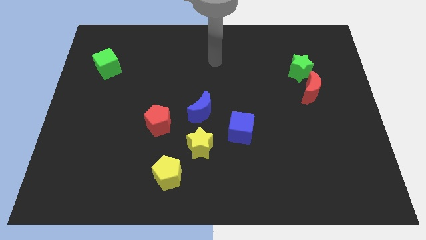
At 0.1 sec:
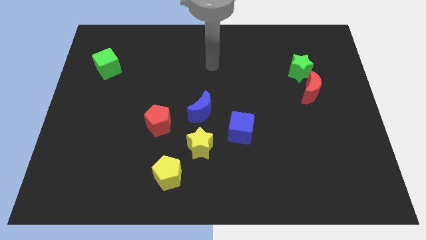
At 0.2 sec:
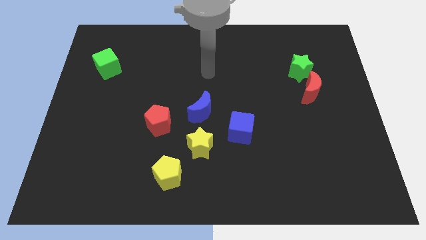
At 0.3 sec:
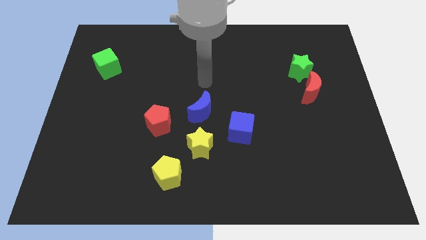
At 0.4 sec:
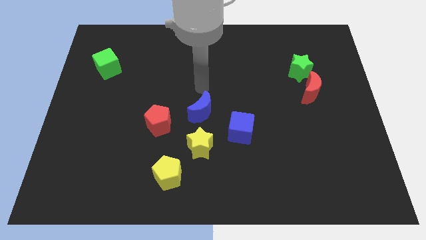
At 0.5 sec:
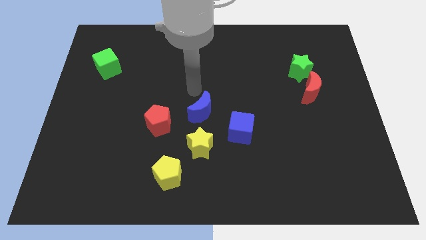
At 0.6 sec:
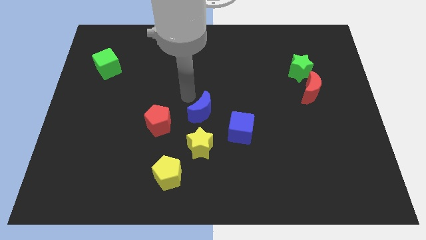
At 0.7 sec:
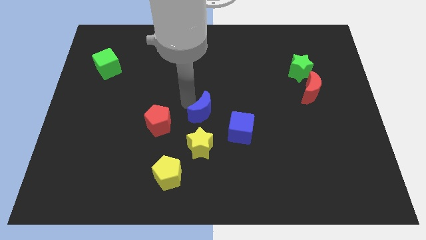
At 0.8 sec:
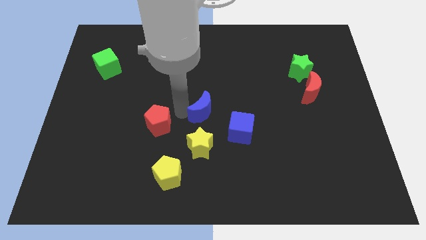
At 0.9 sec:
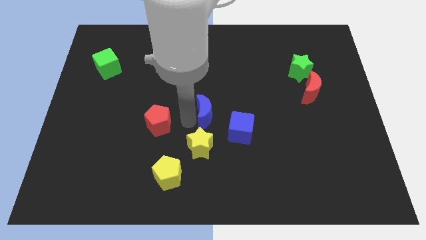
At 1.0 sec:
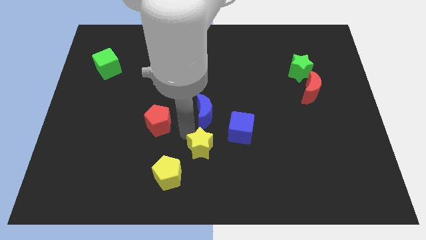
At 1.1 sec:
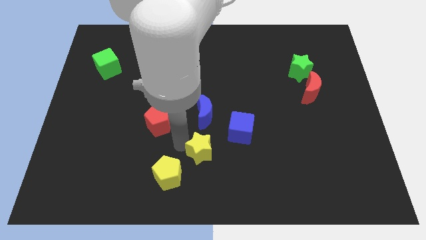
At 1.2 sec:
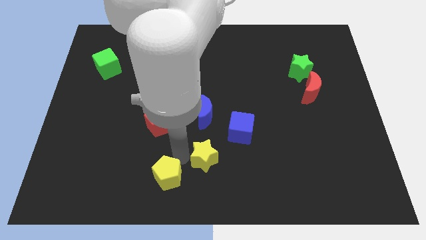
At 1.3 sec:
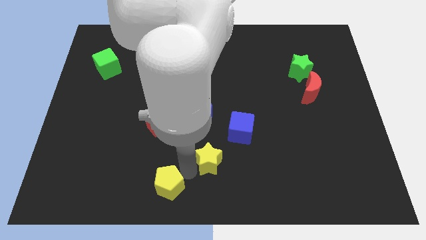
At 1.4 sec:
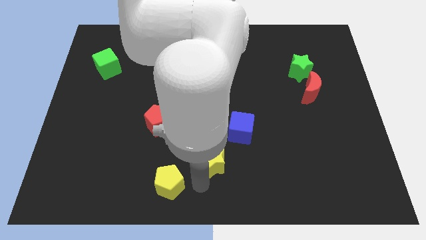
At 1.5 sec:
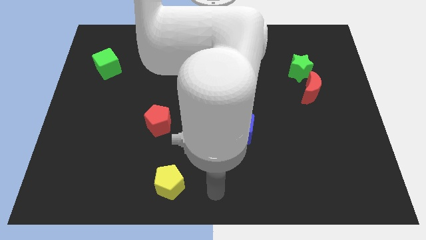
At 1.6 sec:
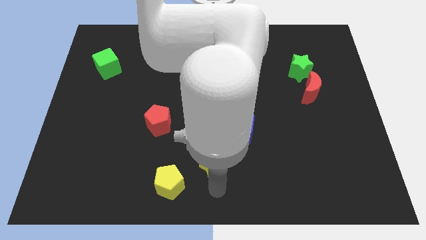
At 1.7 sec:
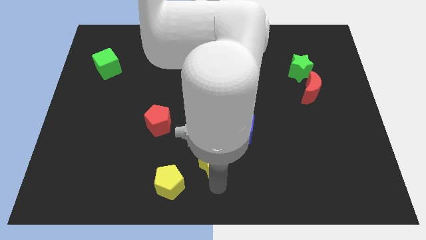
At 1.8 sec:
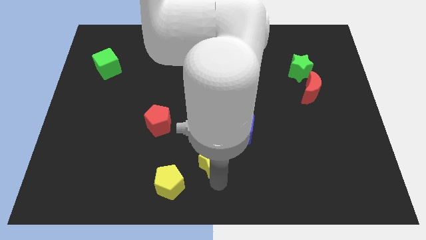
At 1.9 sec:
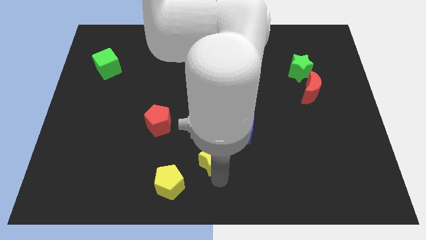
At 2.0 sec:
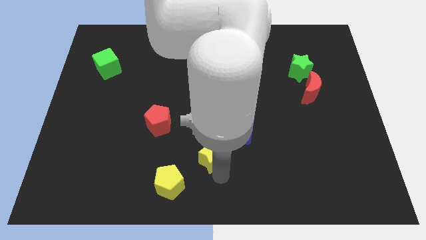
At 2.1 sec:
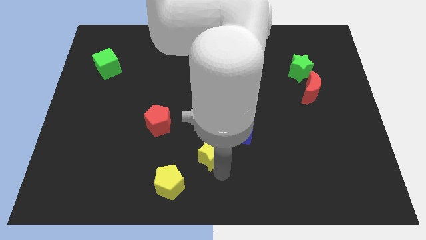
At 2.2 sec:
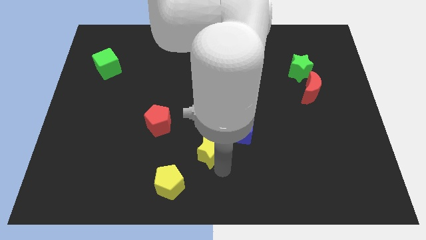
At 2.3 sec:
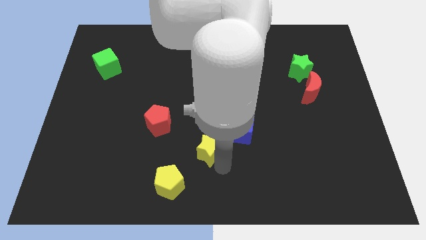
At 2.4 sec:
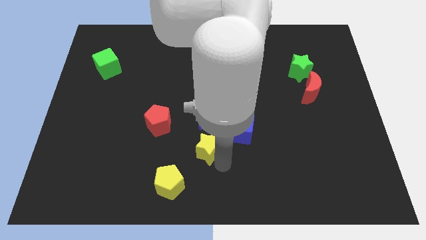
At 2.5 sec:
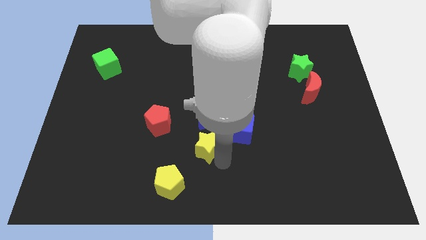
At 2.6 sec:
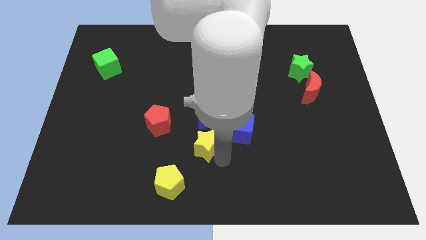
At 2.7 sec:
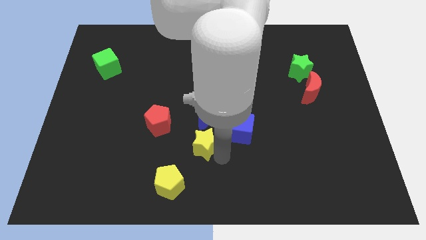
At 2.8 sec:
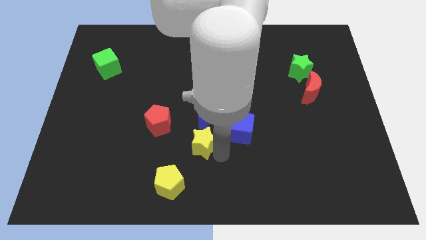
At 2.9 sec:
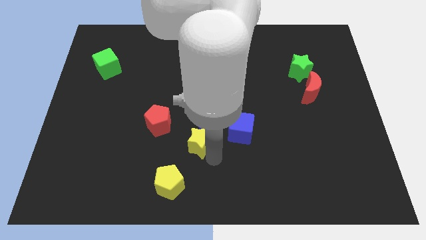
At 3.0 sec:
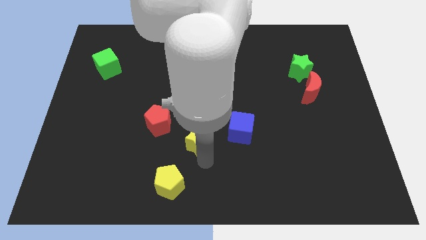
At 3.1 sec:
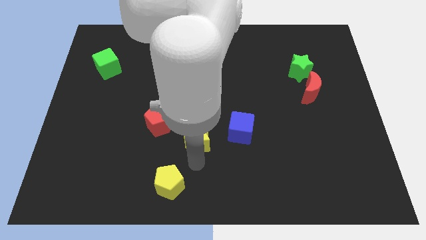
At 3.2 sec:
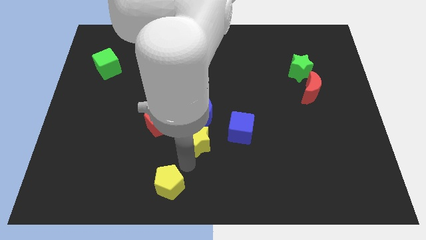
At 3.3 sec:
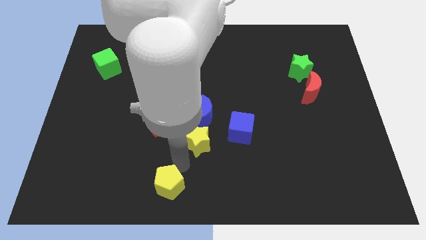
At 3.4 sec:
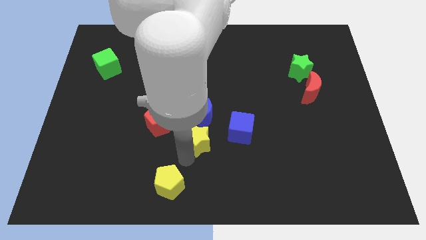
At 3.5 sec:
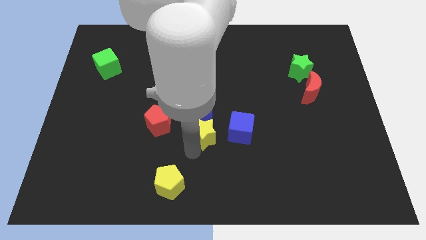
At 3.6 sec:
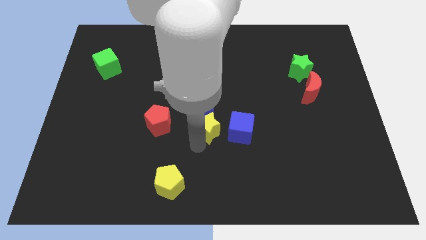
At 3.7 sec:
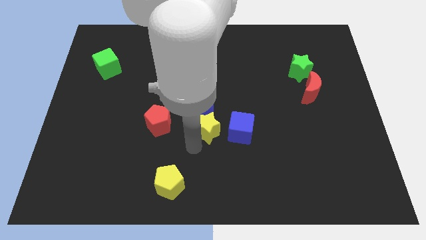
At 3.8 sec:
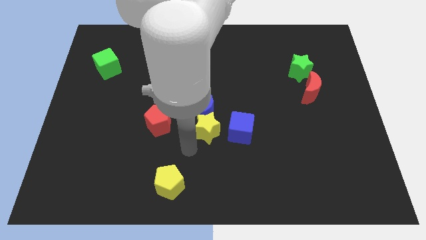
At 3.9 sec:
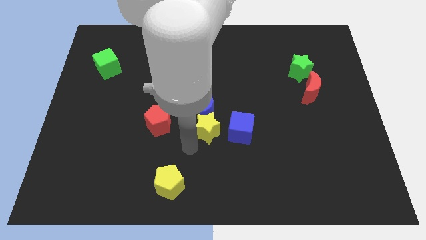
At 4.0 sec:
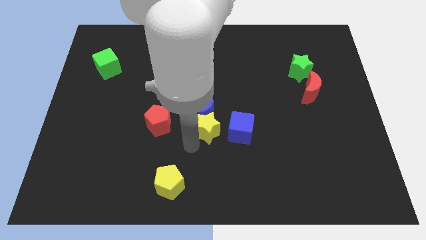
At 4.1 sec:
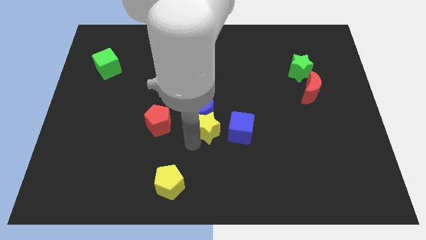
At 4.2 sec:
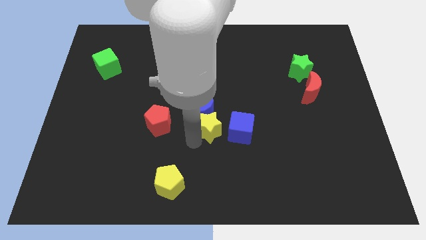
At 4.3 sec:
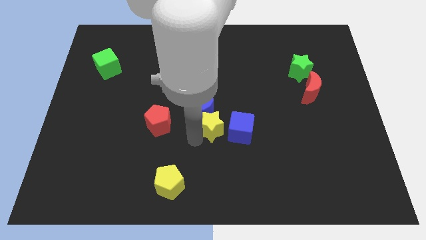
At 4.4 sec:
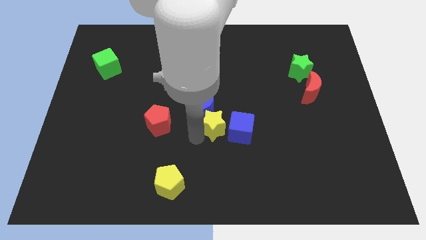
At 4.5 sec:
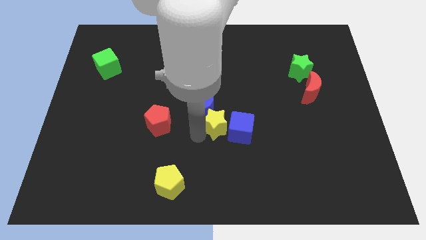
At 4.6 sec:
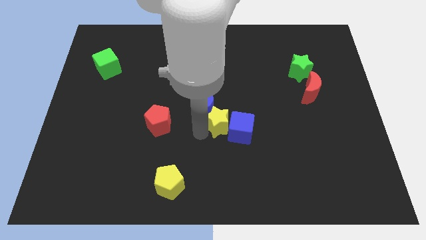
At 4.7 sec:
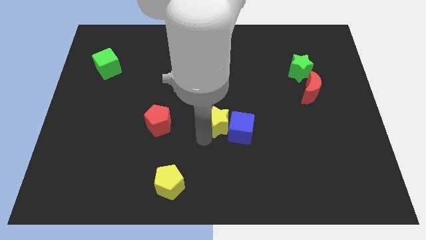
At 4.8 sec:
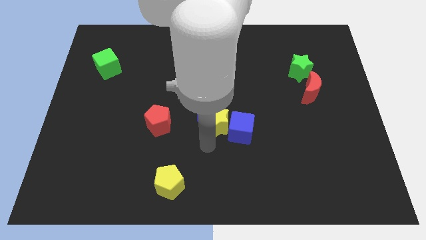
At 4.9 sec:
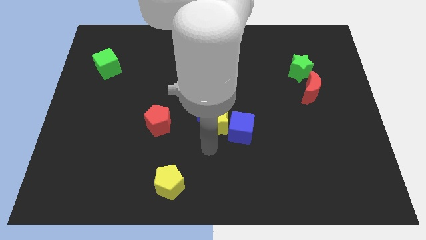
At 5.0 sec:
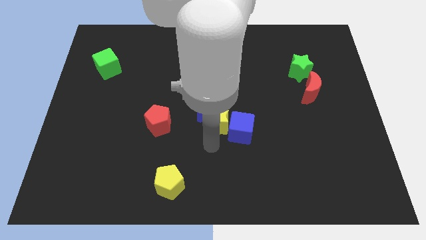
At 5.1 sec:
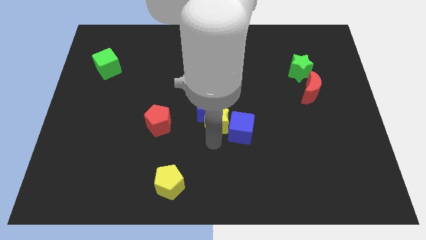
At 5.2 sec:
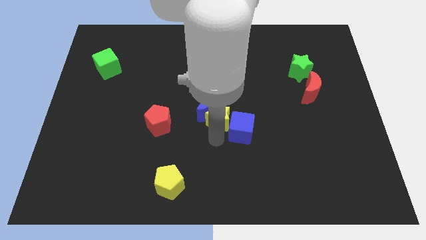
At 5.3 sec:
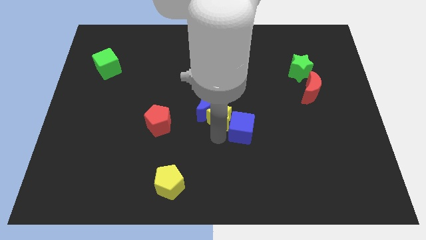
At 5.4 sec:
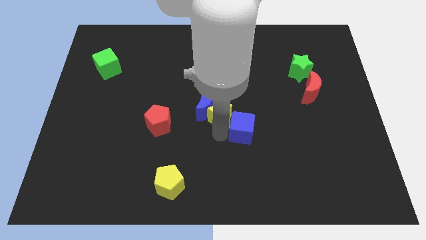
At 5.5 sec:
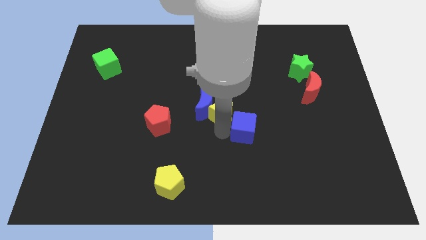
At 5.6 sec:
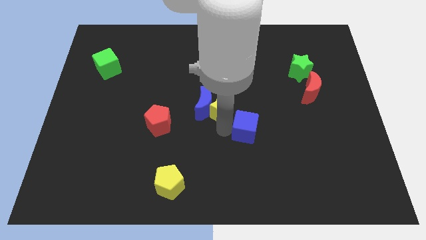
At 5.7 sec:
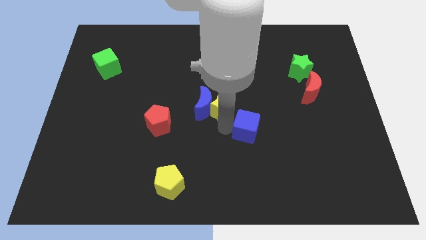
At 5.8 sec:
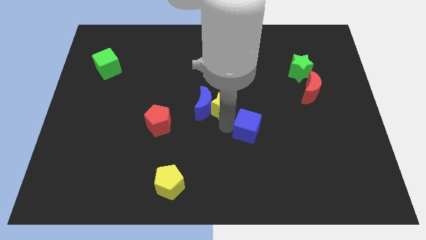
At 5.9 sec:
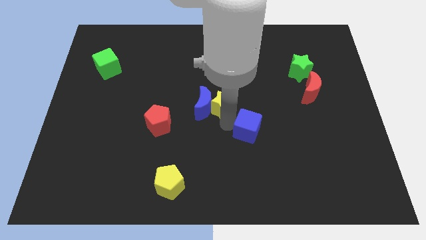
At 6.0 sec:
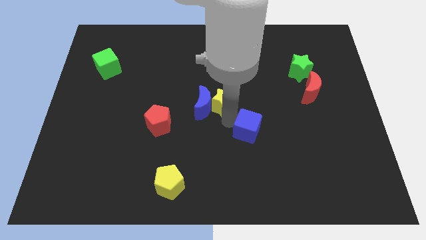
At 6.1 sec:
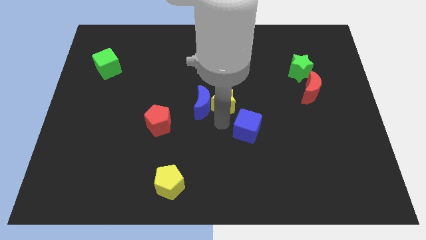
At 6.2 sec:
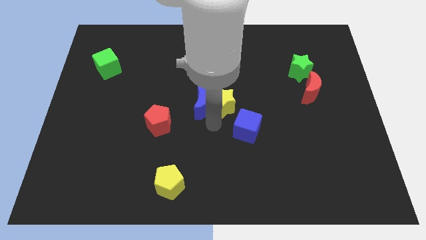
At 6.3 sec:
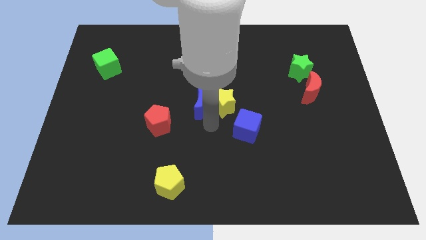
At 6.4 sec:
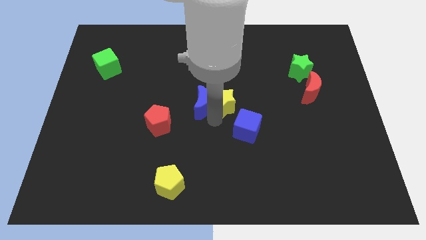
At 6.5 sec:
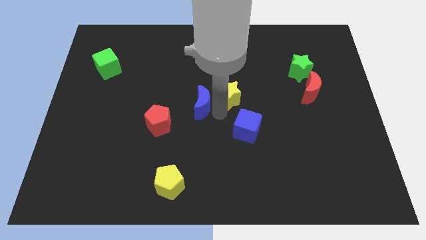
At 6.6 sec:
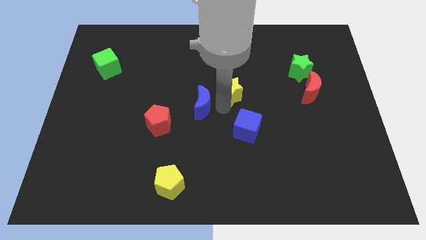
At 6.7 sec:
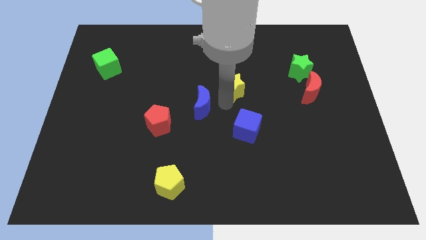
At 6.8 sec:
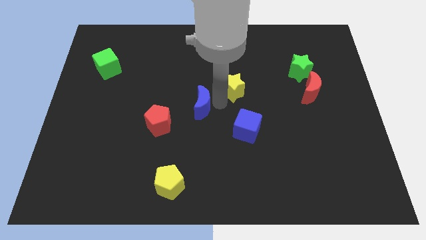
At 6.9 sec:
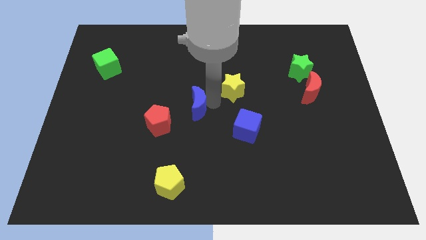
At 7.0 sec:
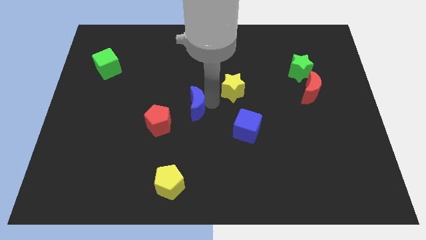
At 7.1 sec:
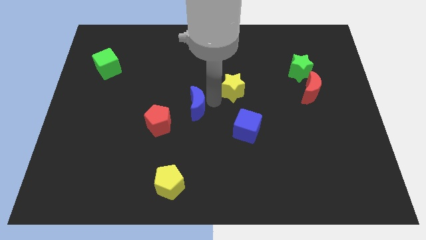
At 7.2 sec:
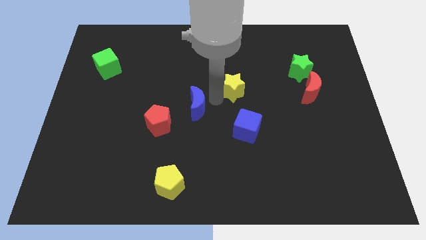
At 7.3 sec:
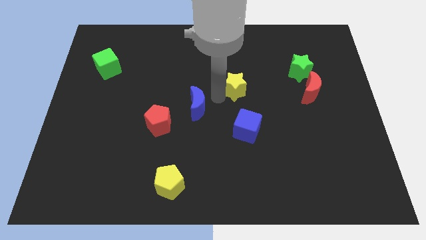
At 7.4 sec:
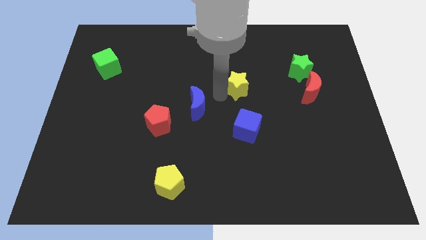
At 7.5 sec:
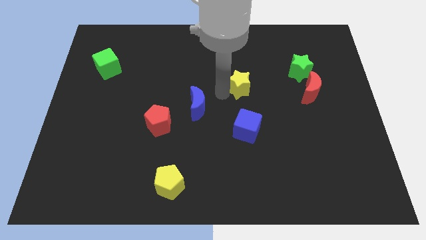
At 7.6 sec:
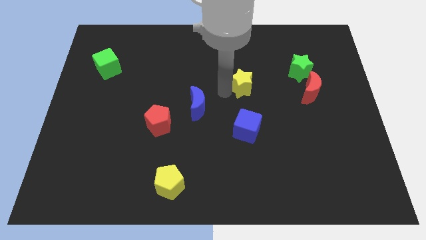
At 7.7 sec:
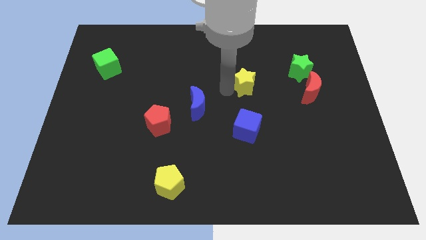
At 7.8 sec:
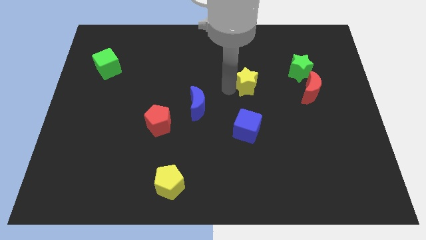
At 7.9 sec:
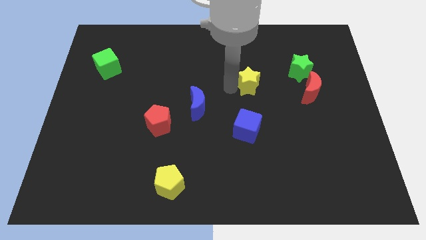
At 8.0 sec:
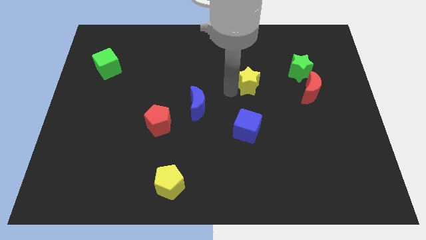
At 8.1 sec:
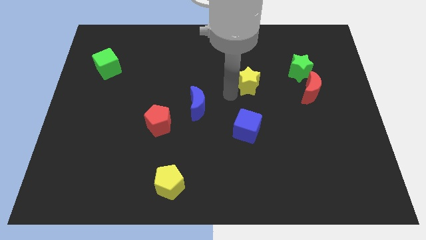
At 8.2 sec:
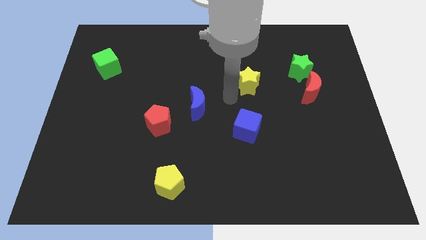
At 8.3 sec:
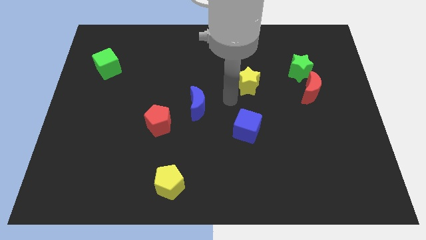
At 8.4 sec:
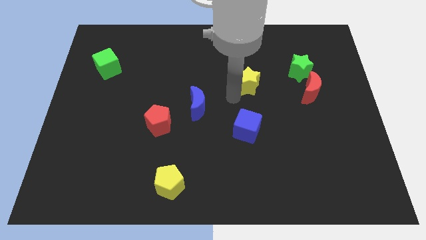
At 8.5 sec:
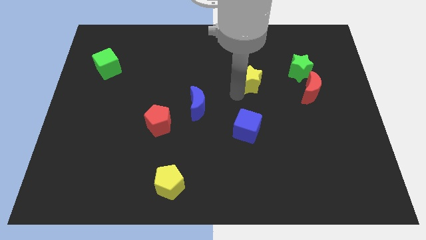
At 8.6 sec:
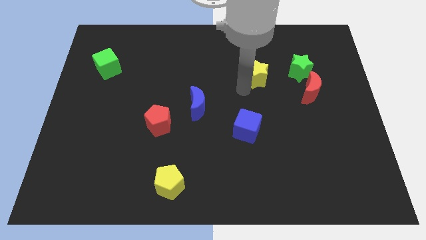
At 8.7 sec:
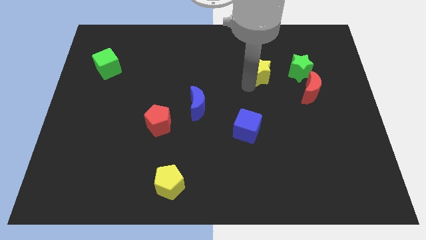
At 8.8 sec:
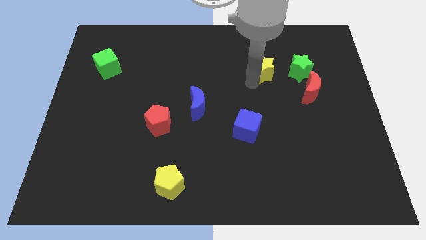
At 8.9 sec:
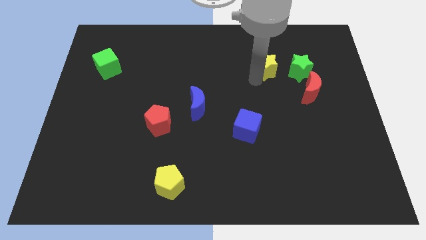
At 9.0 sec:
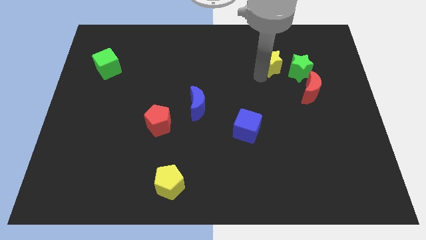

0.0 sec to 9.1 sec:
move the yellow star to the top left of the green star
